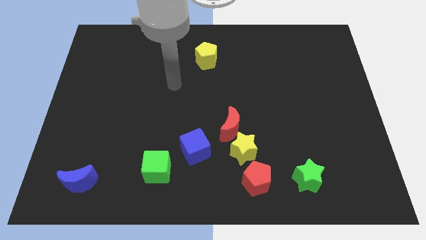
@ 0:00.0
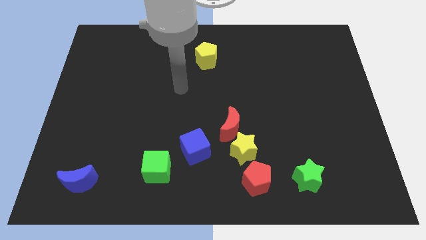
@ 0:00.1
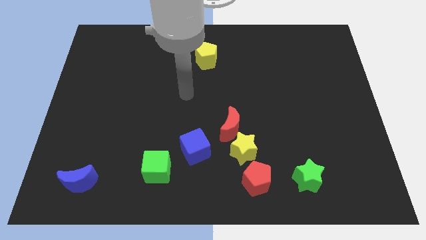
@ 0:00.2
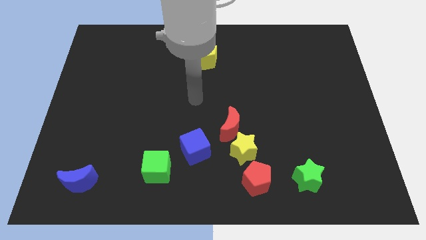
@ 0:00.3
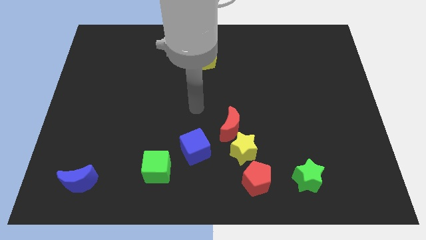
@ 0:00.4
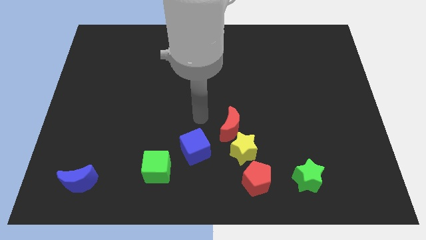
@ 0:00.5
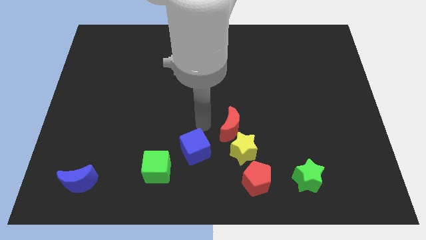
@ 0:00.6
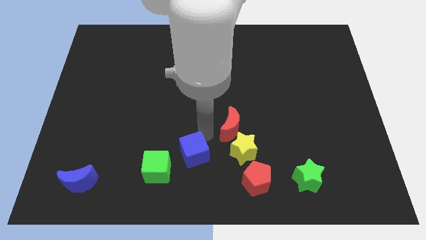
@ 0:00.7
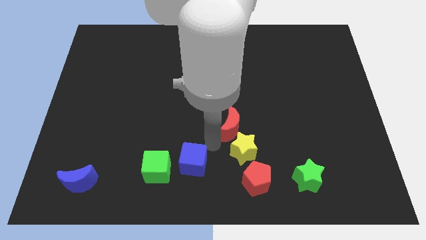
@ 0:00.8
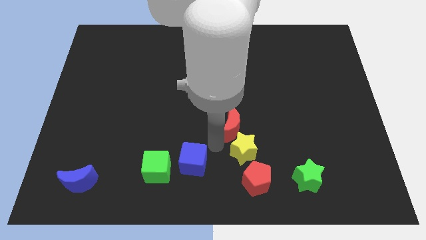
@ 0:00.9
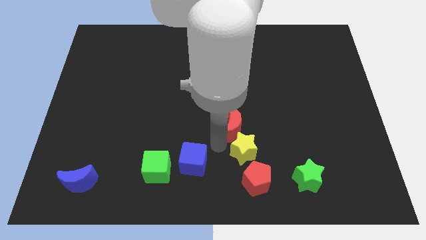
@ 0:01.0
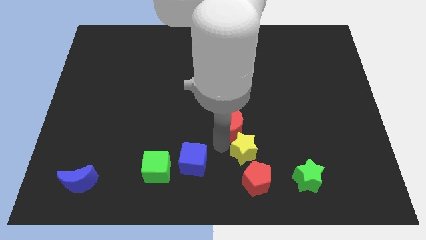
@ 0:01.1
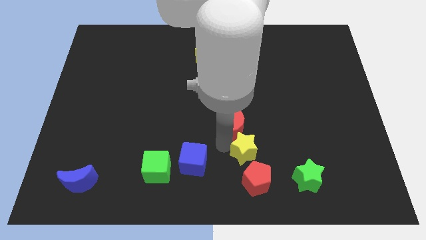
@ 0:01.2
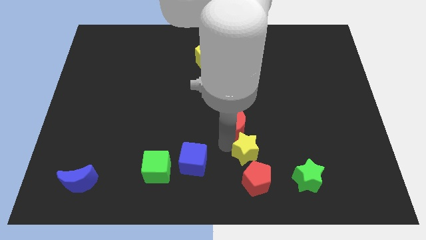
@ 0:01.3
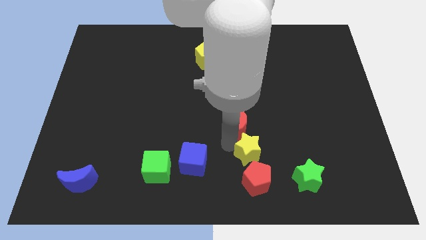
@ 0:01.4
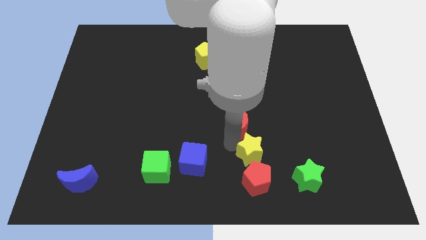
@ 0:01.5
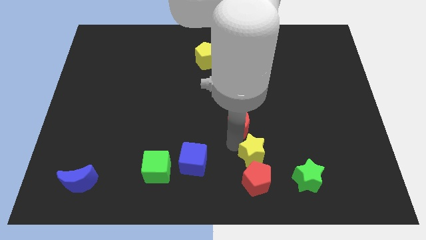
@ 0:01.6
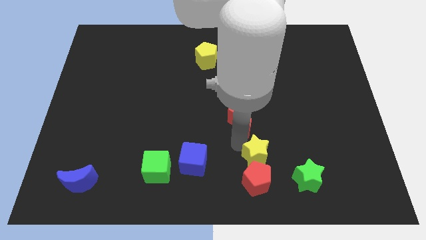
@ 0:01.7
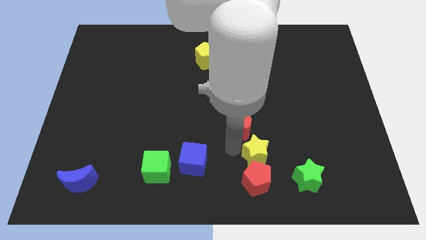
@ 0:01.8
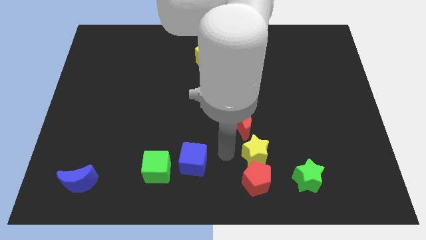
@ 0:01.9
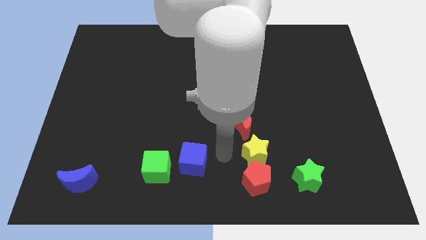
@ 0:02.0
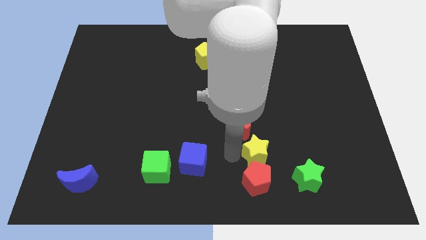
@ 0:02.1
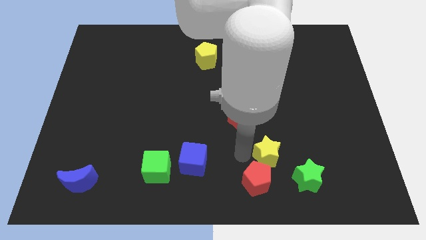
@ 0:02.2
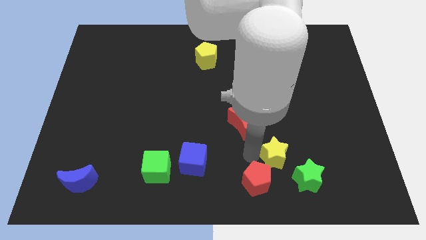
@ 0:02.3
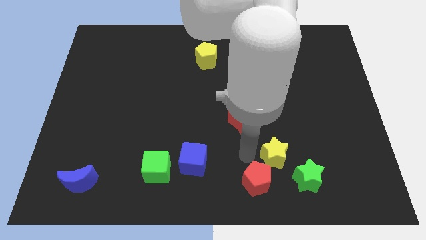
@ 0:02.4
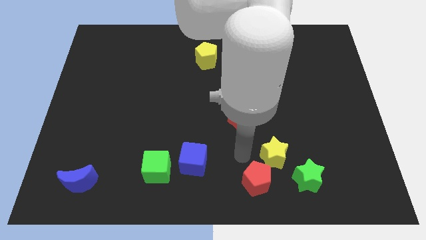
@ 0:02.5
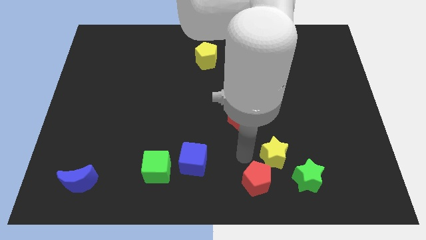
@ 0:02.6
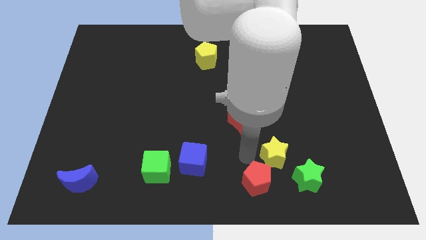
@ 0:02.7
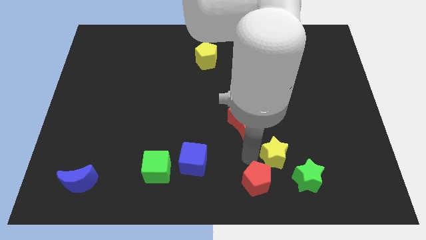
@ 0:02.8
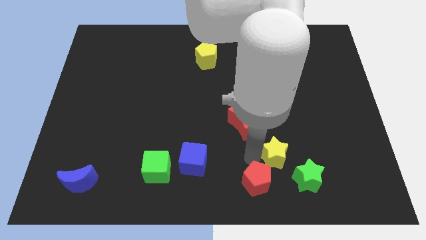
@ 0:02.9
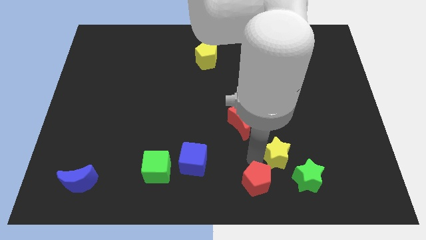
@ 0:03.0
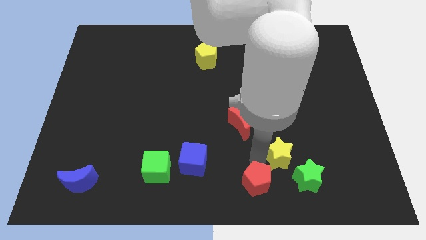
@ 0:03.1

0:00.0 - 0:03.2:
separate the yellow star from the red moon, red pentagon, and blue cube

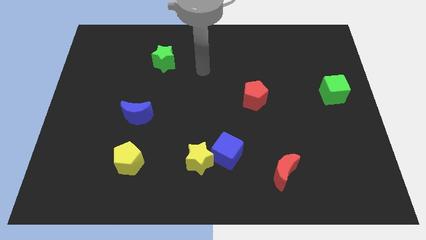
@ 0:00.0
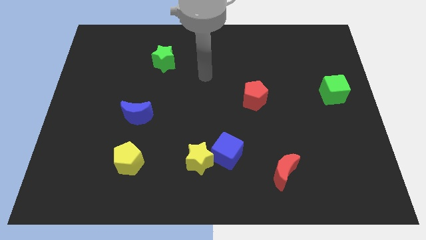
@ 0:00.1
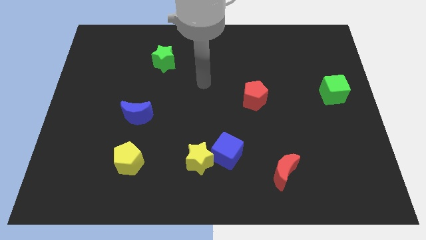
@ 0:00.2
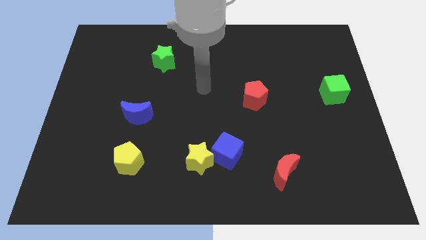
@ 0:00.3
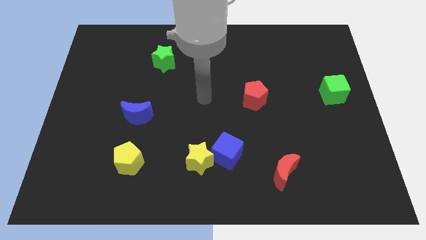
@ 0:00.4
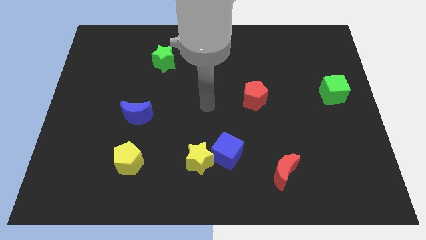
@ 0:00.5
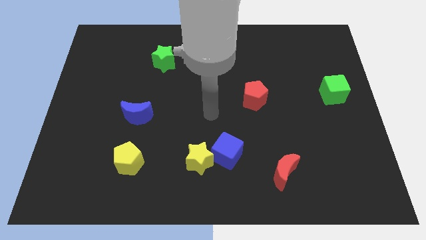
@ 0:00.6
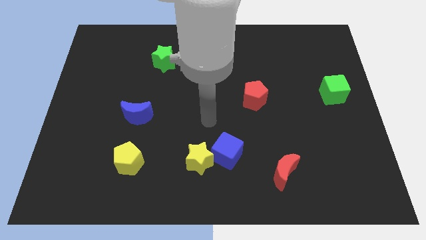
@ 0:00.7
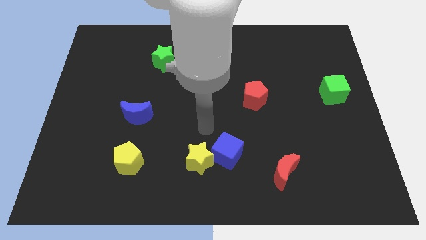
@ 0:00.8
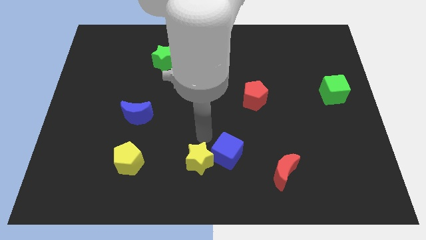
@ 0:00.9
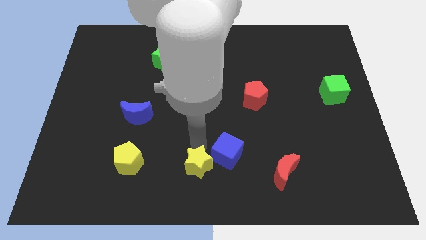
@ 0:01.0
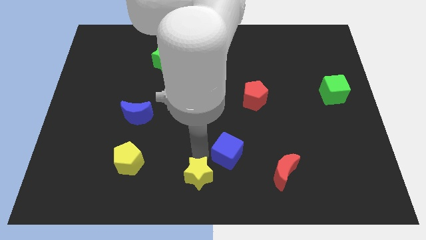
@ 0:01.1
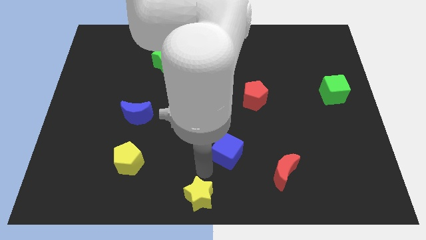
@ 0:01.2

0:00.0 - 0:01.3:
move the blue cube away from the yellow star

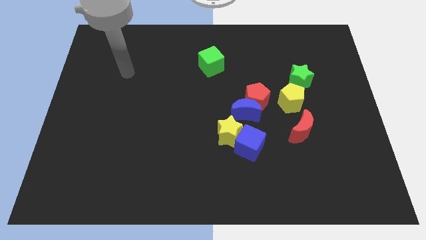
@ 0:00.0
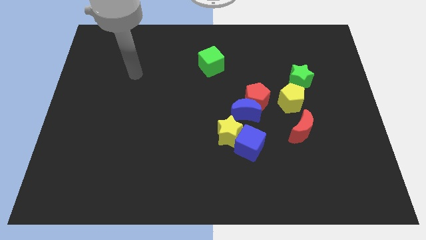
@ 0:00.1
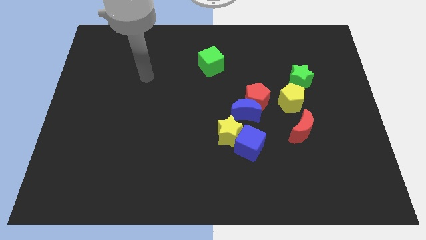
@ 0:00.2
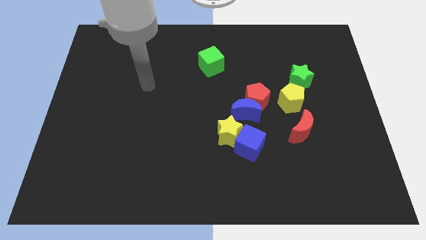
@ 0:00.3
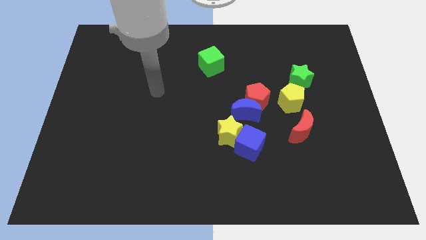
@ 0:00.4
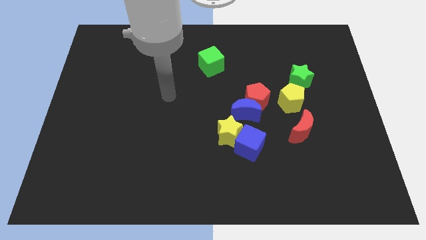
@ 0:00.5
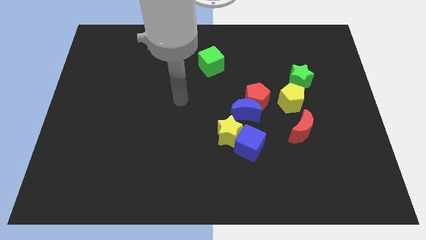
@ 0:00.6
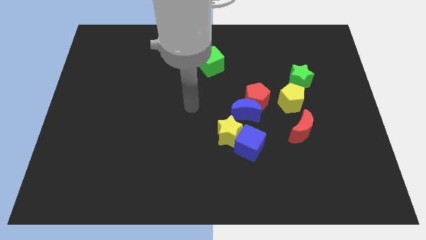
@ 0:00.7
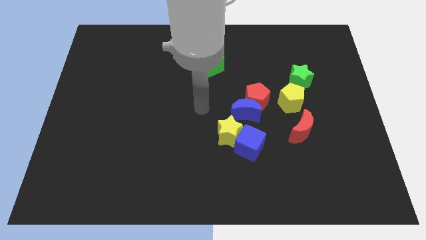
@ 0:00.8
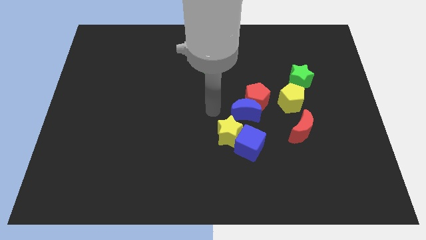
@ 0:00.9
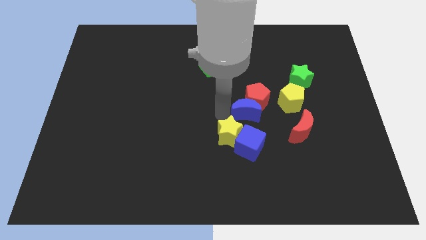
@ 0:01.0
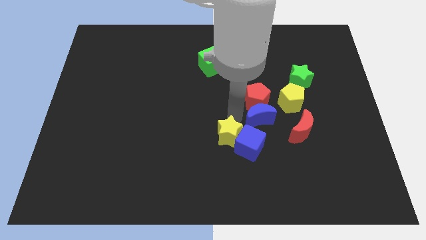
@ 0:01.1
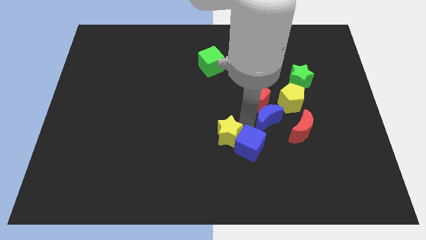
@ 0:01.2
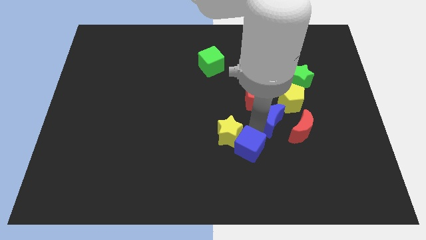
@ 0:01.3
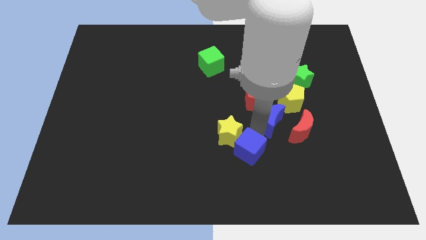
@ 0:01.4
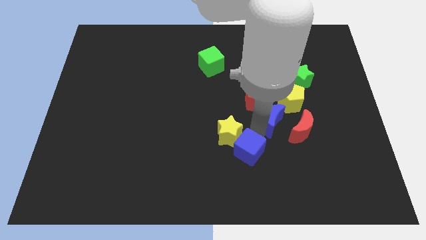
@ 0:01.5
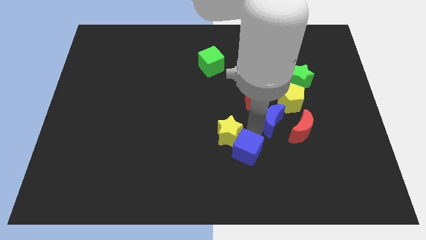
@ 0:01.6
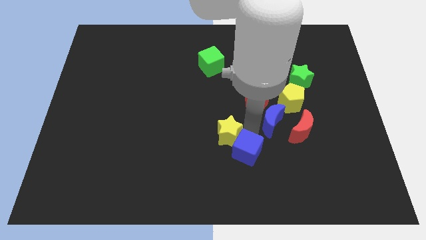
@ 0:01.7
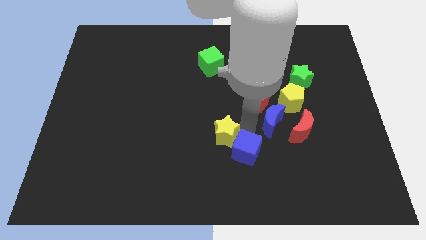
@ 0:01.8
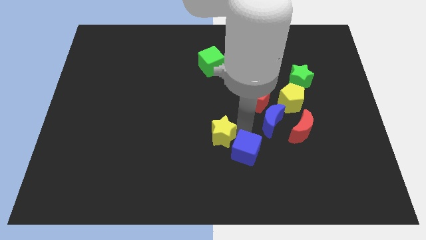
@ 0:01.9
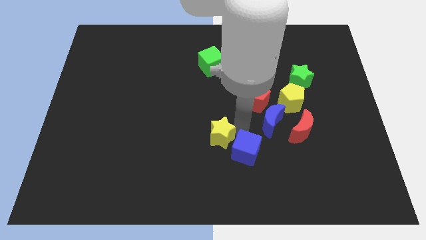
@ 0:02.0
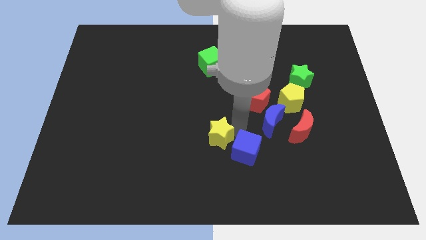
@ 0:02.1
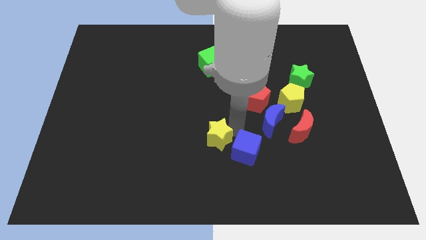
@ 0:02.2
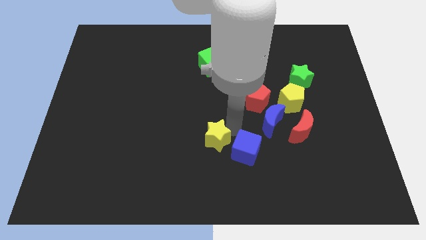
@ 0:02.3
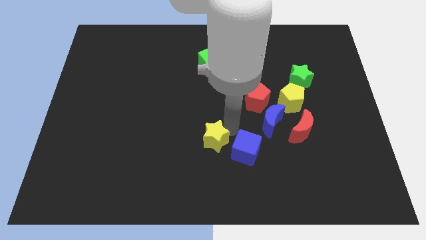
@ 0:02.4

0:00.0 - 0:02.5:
separate the yellow star from the blue cube and blue moon

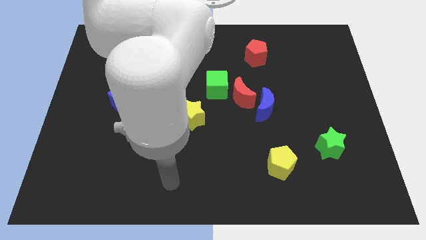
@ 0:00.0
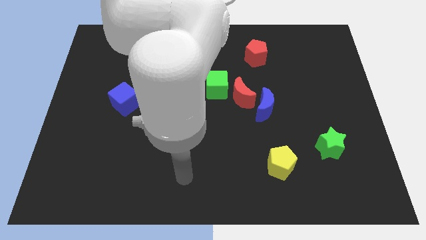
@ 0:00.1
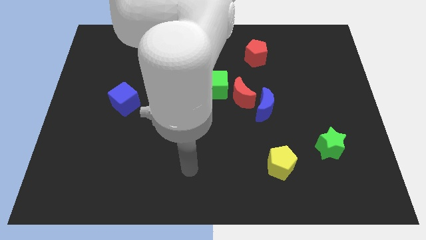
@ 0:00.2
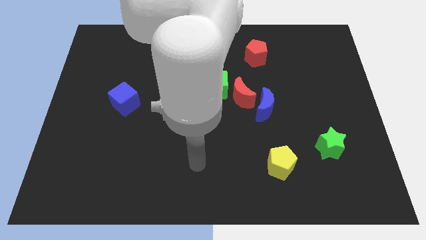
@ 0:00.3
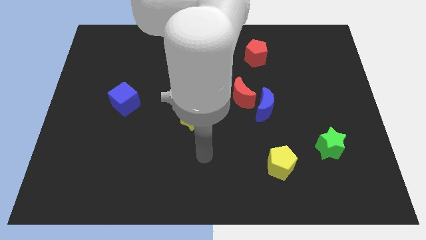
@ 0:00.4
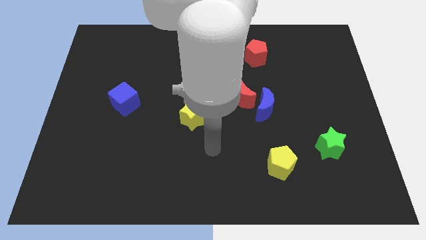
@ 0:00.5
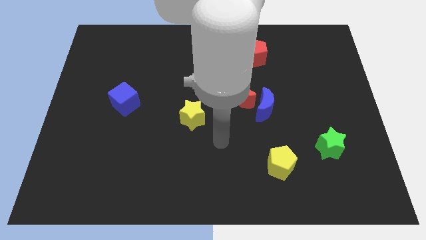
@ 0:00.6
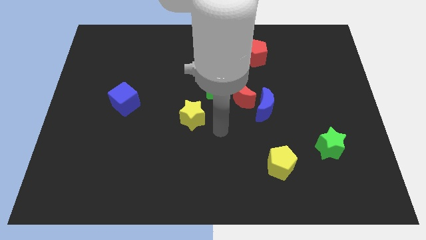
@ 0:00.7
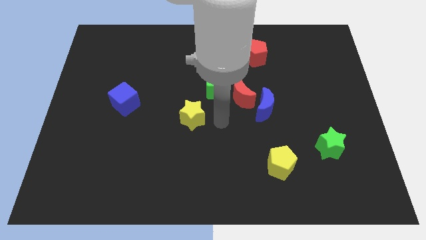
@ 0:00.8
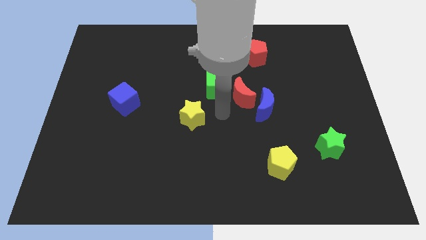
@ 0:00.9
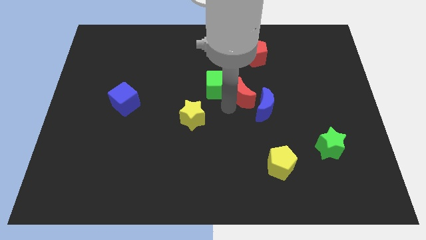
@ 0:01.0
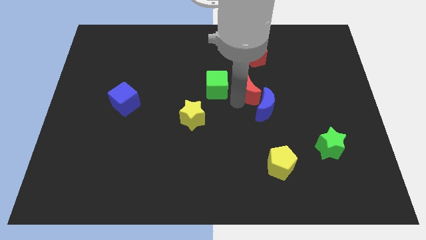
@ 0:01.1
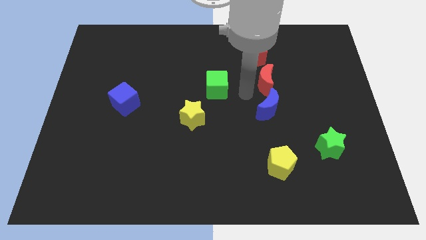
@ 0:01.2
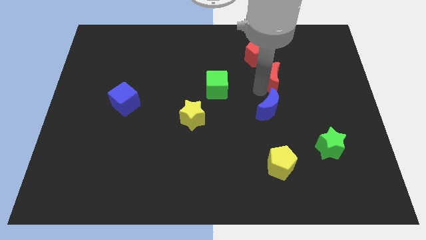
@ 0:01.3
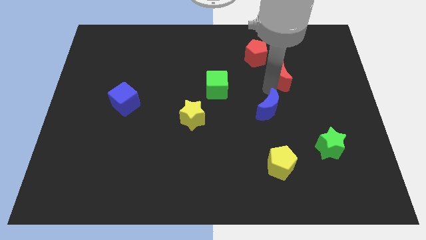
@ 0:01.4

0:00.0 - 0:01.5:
separate the blue moon from the red moon

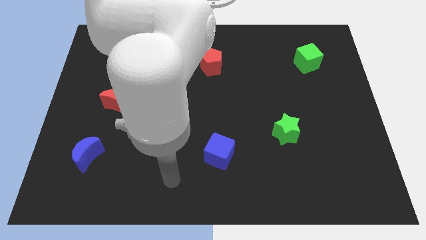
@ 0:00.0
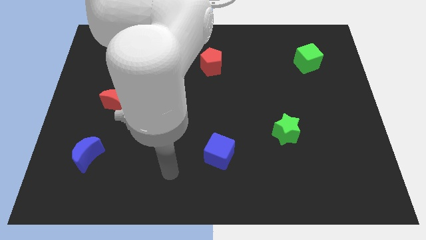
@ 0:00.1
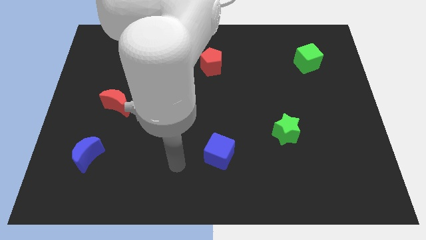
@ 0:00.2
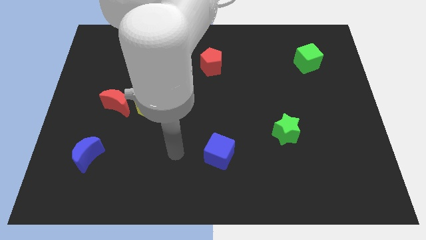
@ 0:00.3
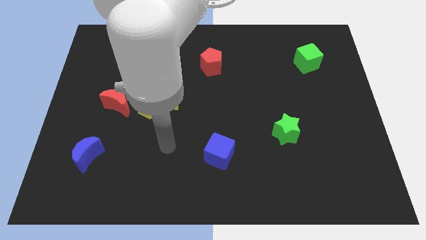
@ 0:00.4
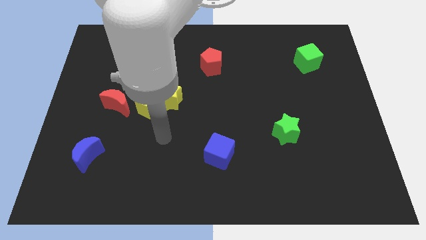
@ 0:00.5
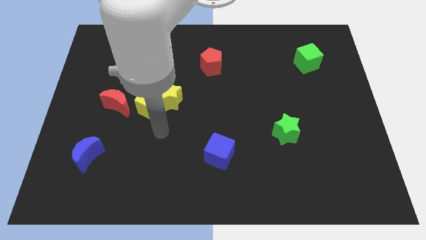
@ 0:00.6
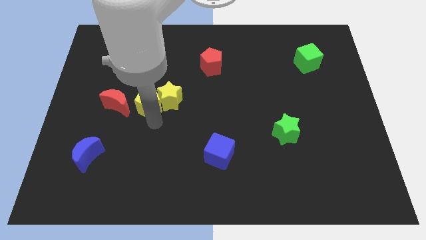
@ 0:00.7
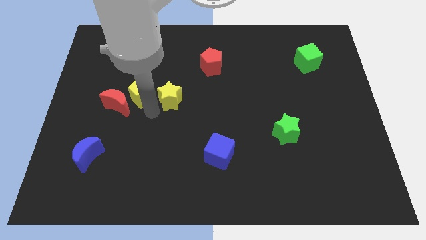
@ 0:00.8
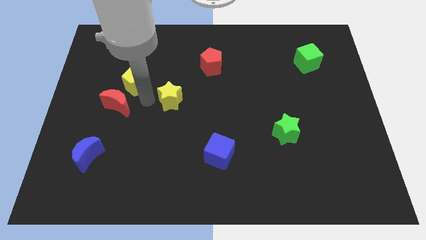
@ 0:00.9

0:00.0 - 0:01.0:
pull the yellow star apart from the yellow pentagon
